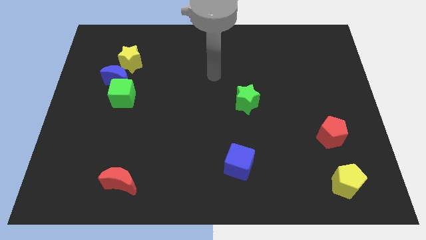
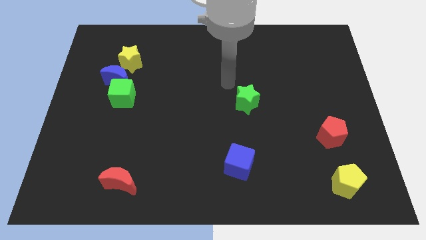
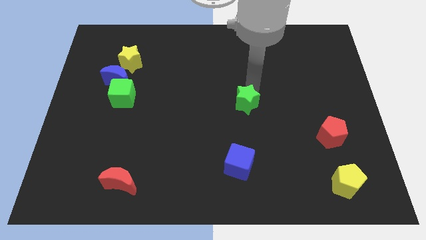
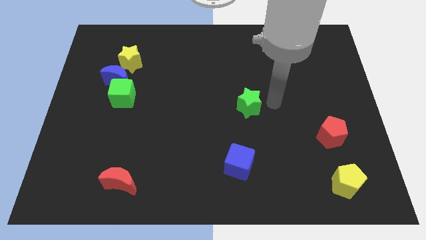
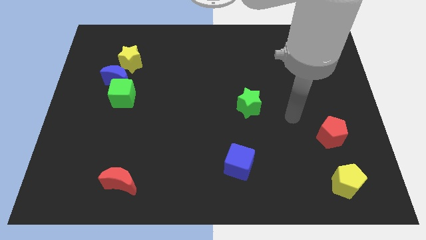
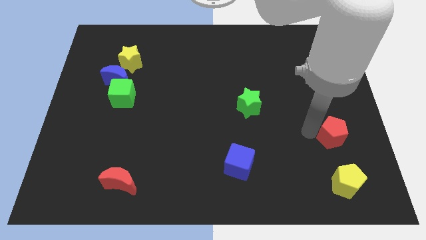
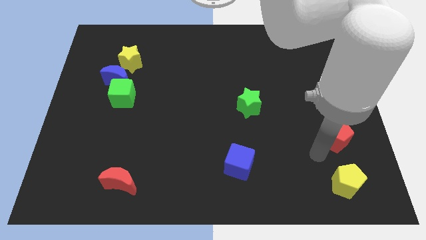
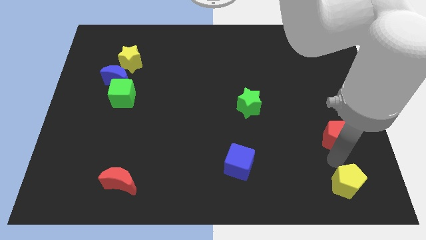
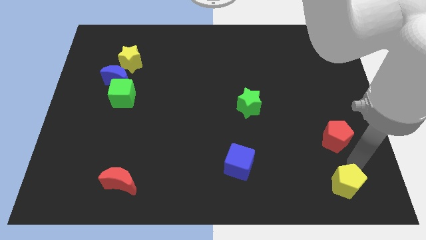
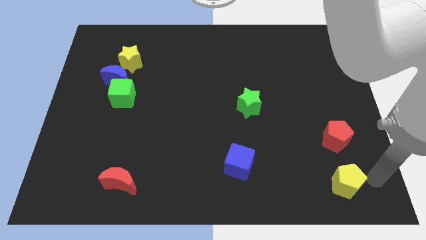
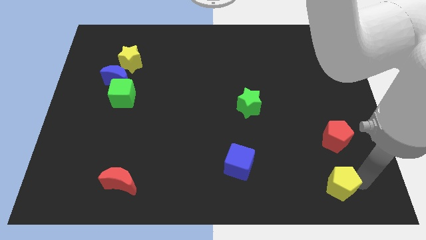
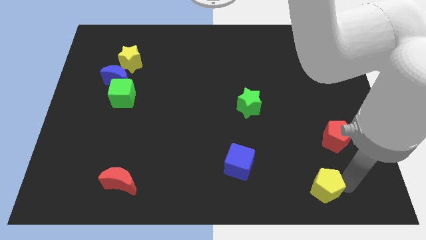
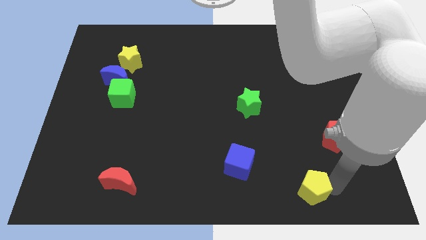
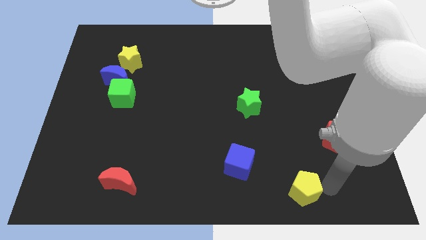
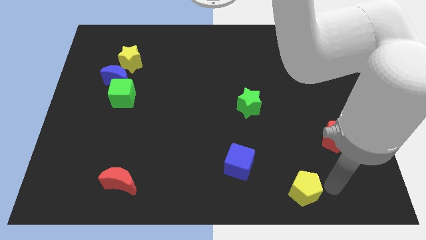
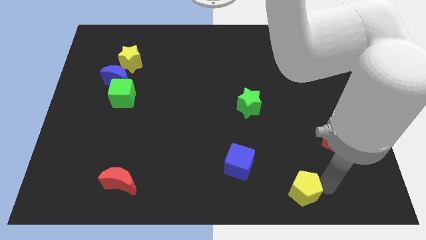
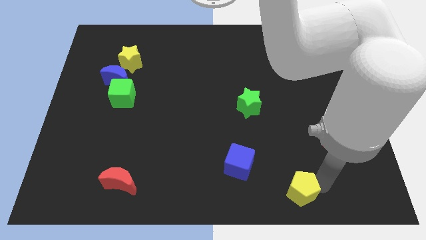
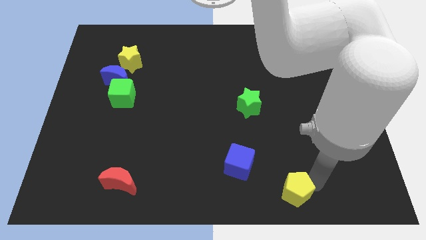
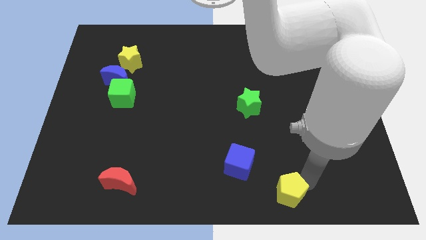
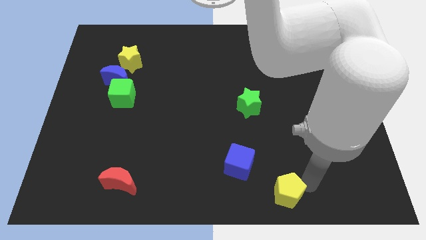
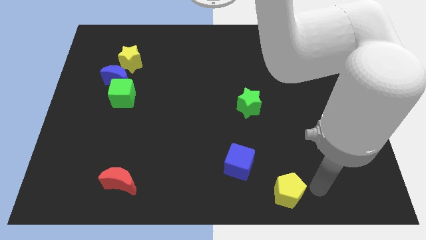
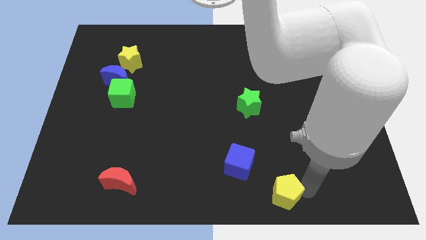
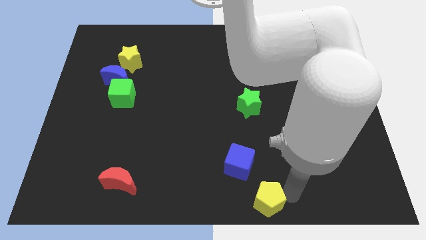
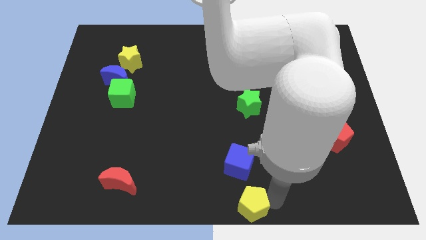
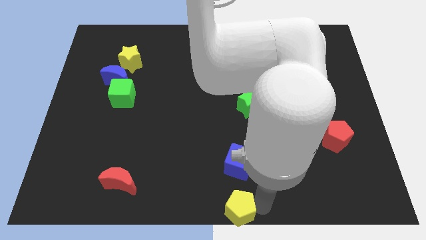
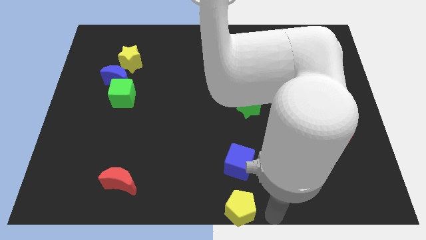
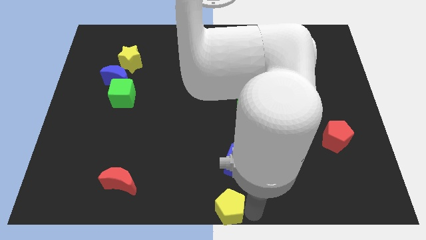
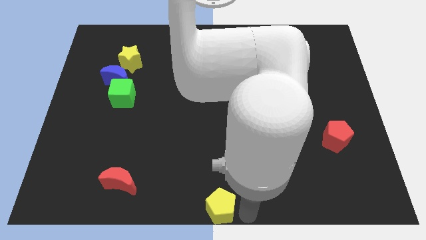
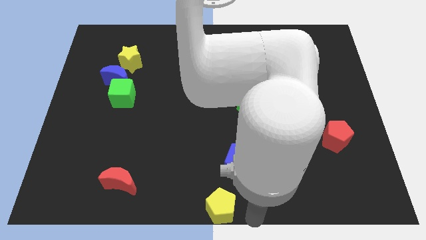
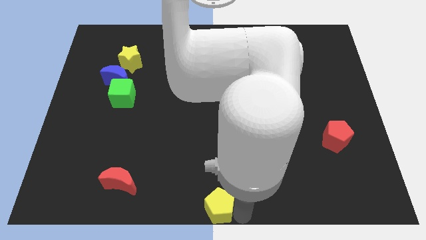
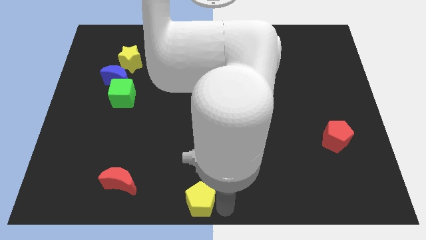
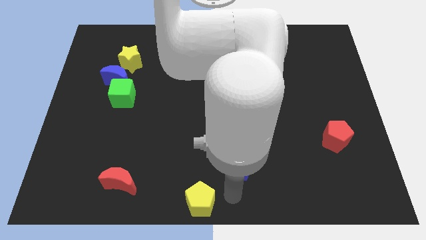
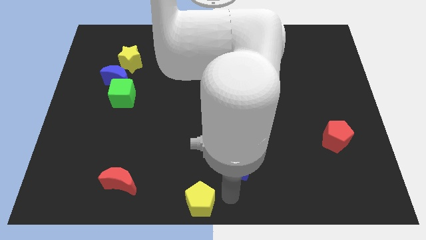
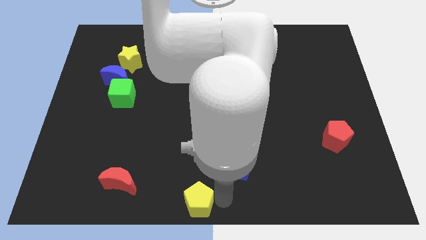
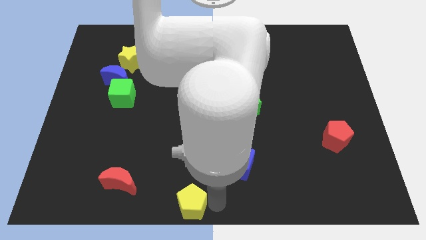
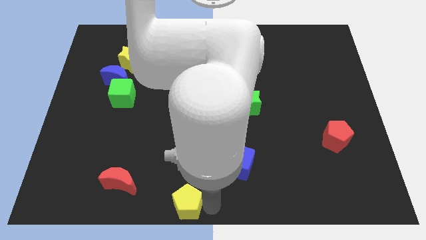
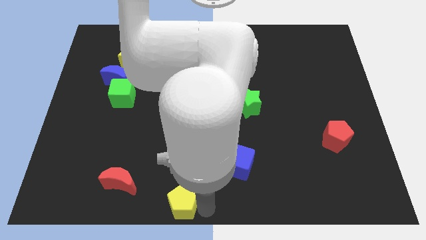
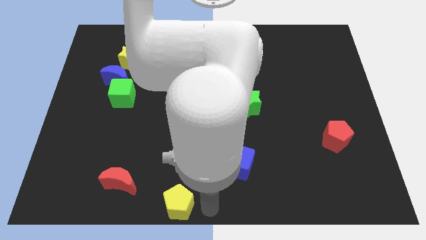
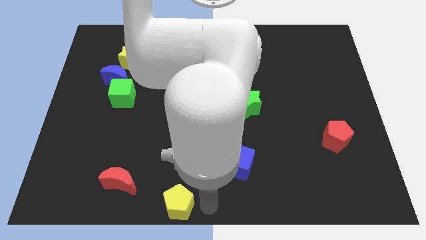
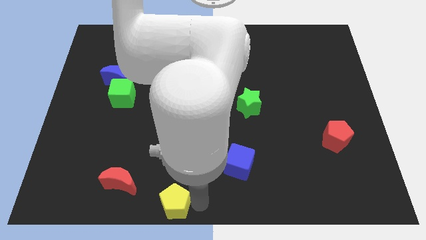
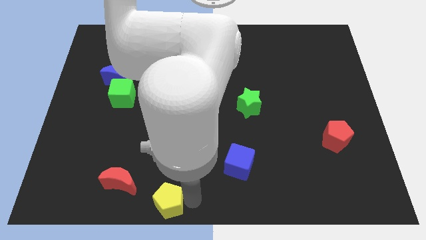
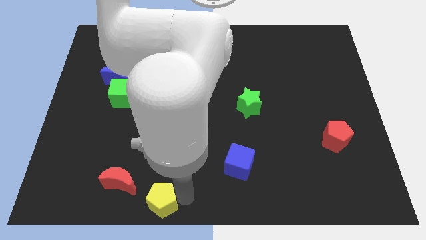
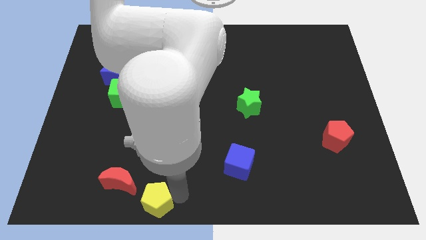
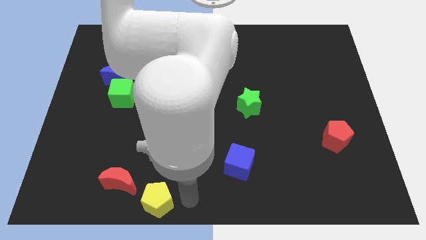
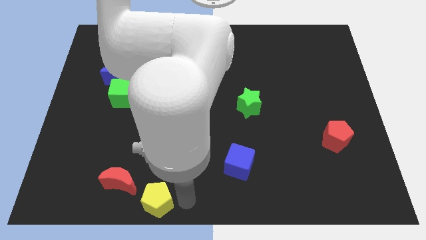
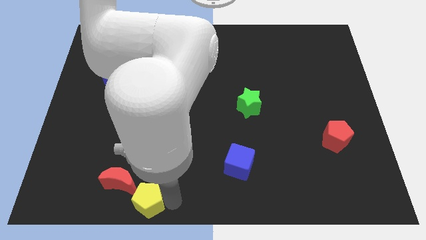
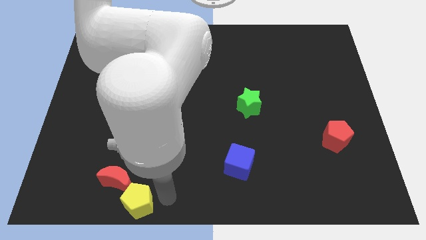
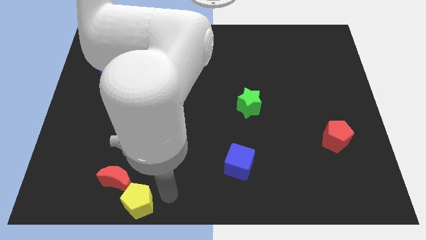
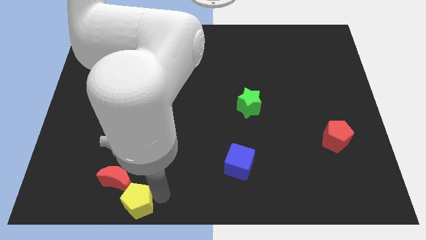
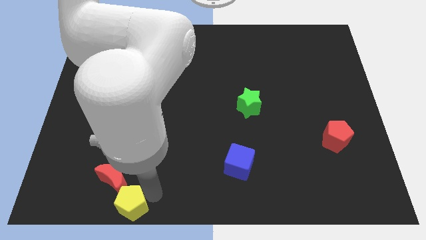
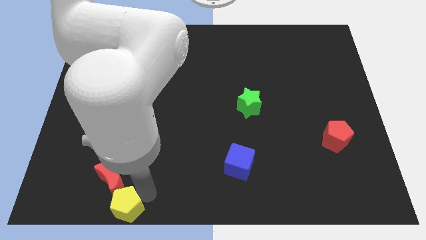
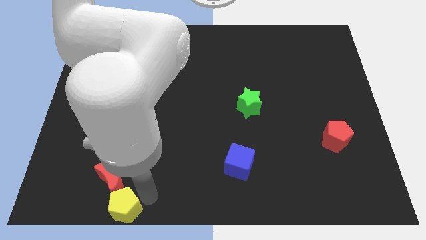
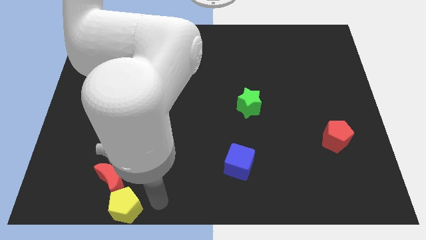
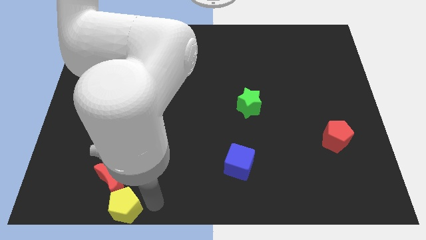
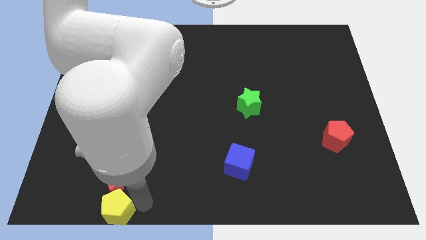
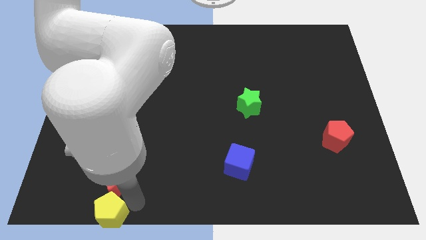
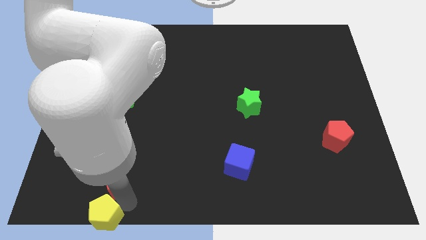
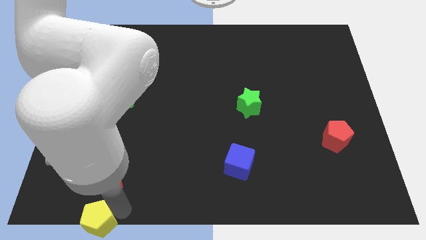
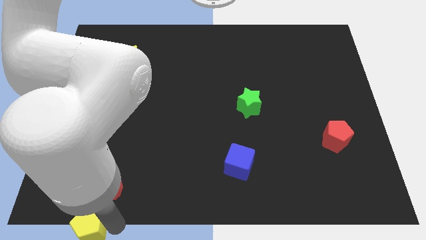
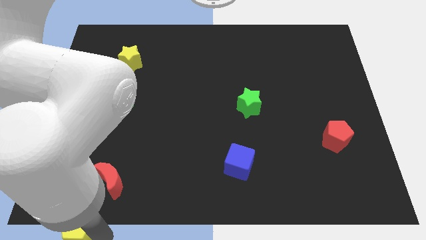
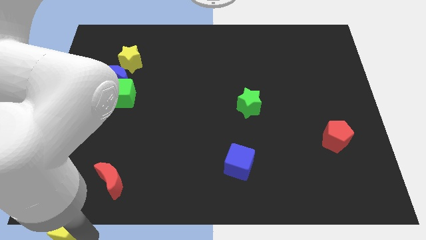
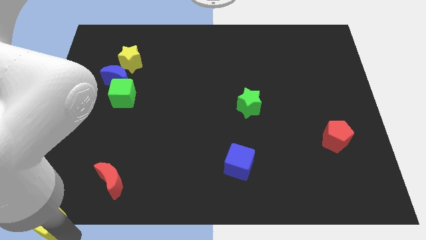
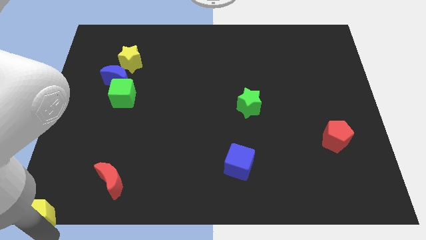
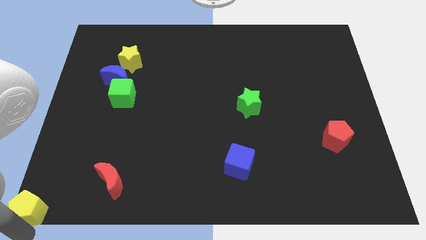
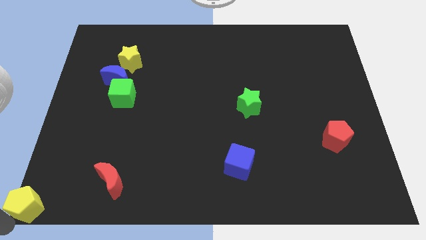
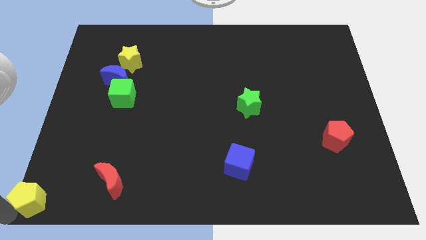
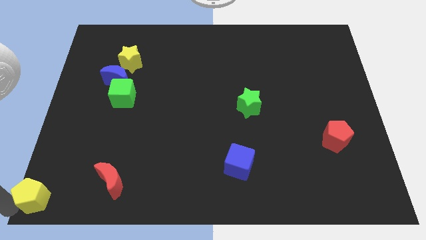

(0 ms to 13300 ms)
slide the yellow pentagon left of the red moon
